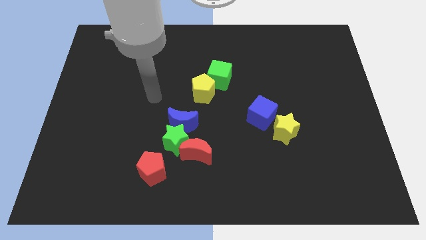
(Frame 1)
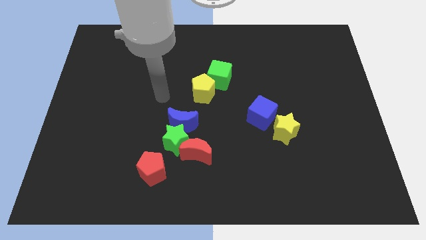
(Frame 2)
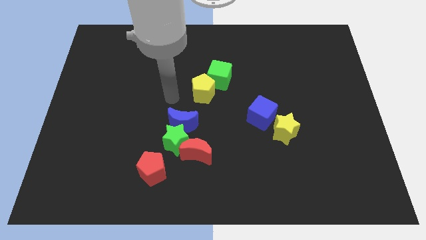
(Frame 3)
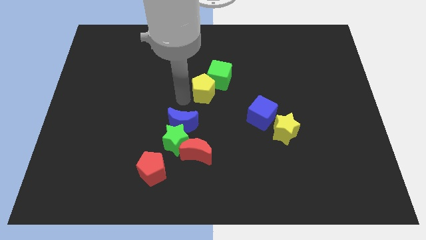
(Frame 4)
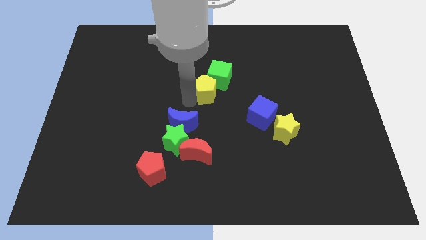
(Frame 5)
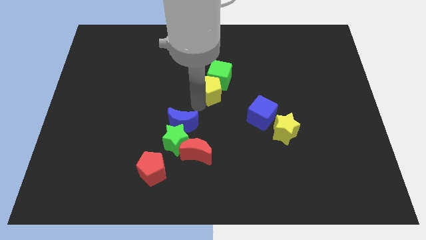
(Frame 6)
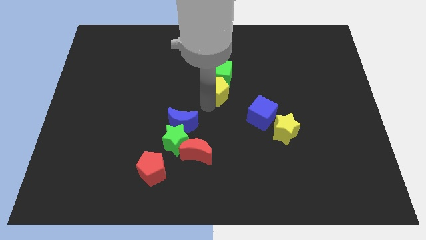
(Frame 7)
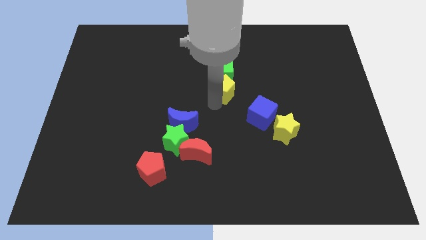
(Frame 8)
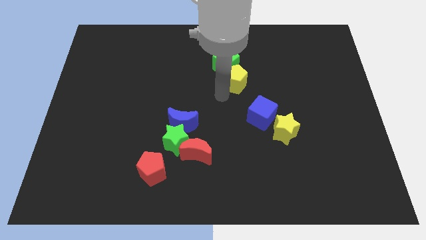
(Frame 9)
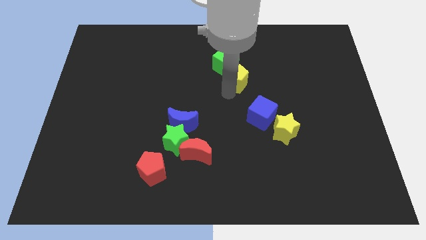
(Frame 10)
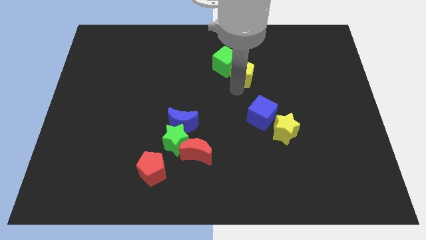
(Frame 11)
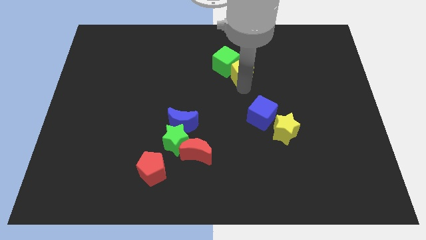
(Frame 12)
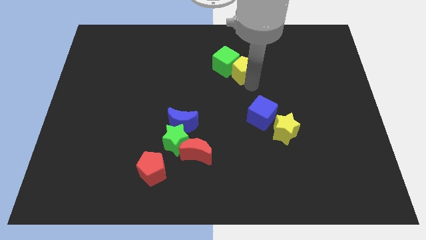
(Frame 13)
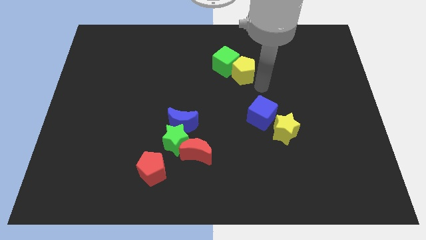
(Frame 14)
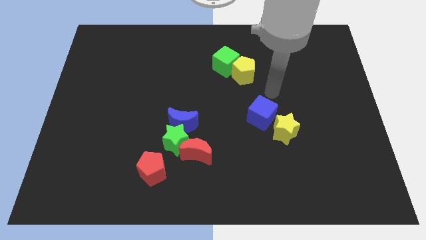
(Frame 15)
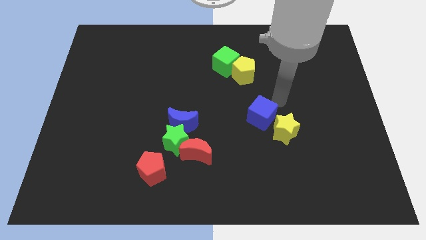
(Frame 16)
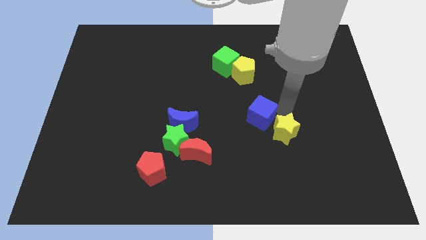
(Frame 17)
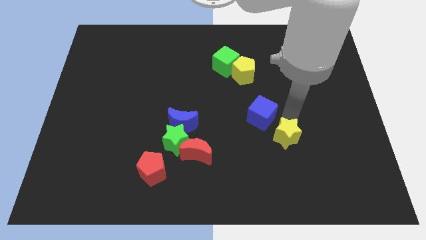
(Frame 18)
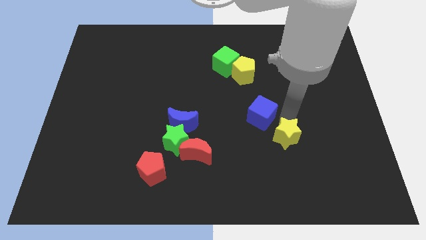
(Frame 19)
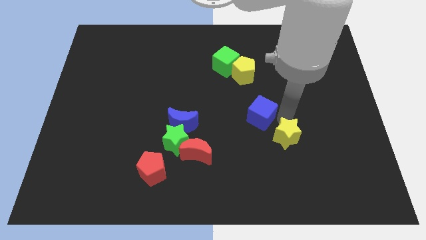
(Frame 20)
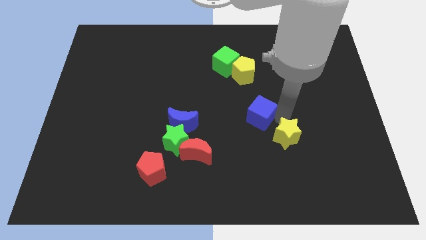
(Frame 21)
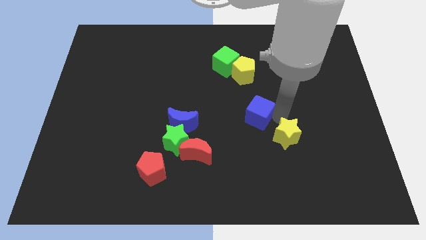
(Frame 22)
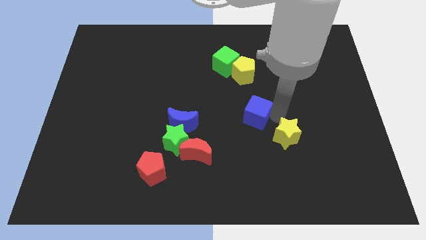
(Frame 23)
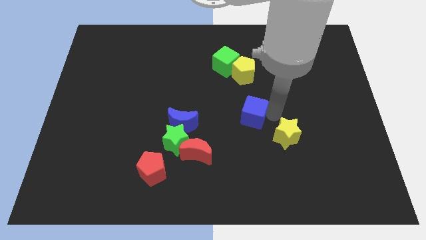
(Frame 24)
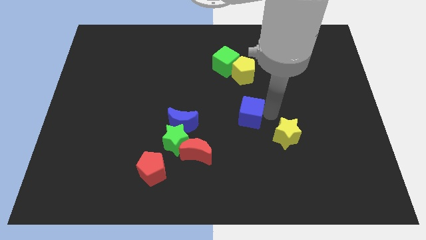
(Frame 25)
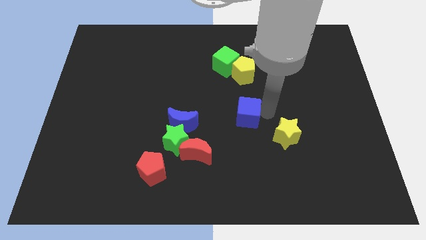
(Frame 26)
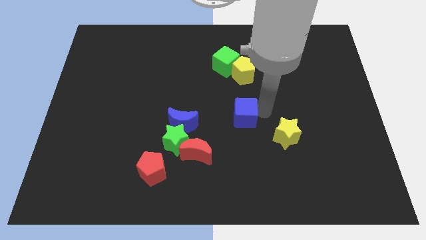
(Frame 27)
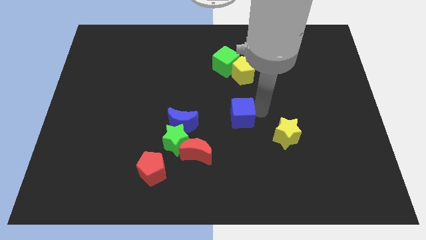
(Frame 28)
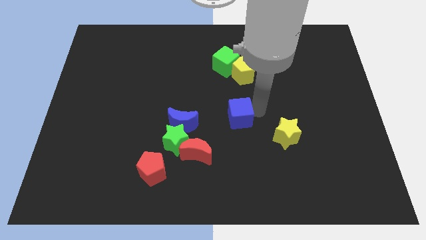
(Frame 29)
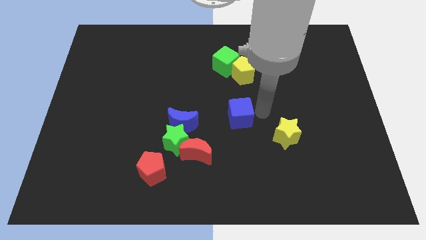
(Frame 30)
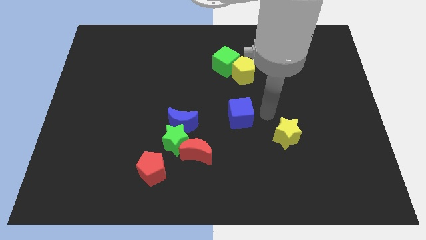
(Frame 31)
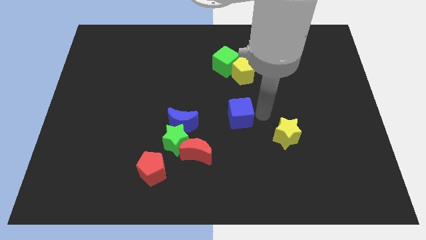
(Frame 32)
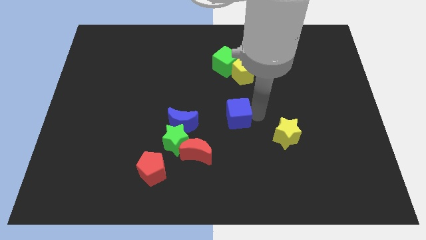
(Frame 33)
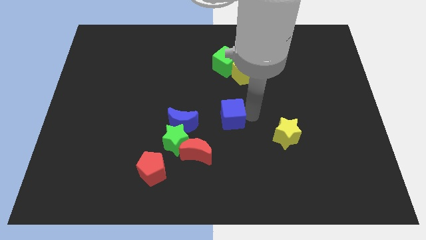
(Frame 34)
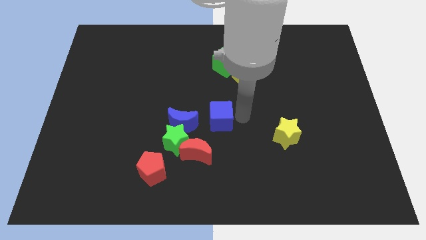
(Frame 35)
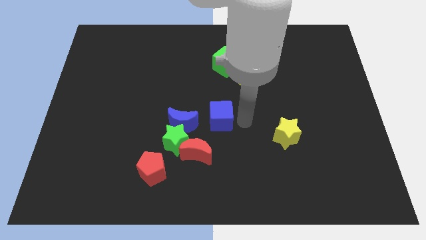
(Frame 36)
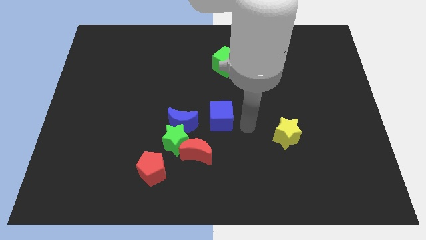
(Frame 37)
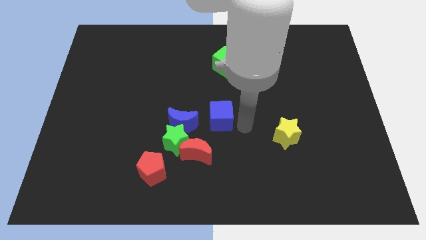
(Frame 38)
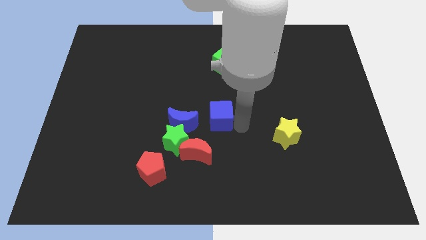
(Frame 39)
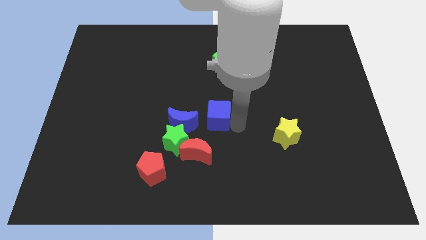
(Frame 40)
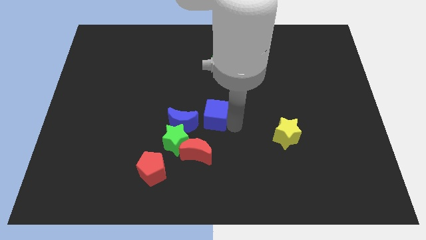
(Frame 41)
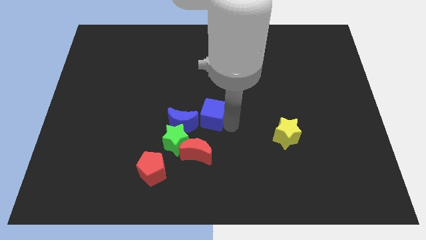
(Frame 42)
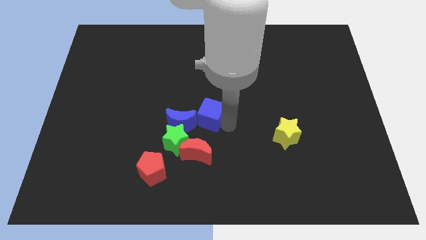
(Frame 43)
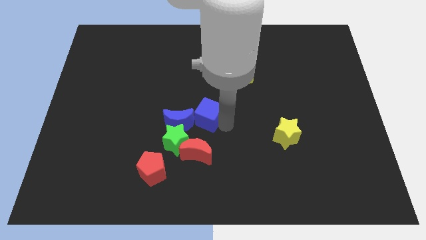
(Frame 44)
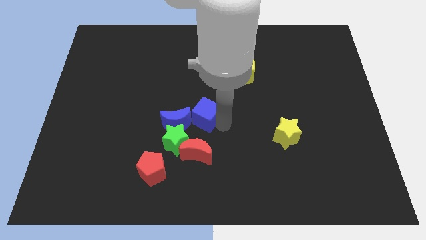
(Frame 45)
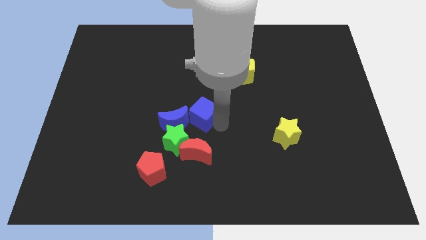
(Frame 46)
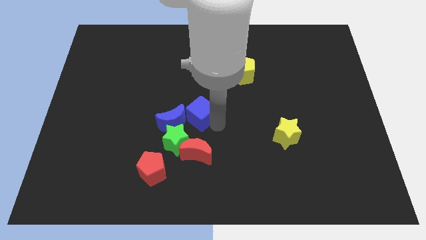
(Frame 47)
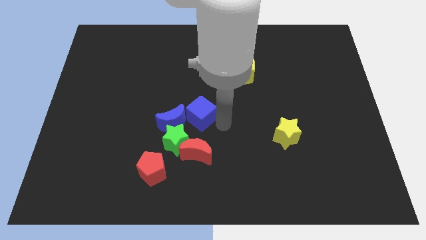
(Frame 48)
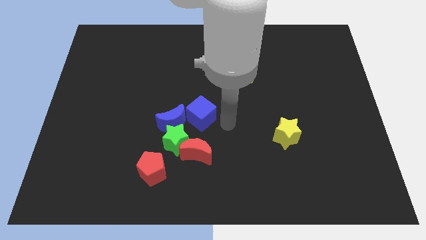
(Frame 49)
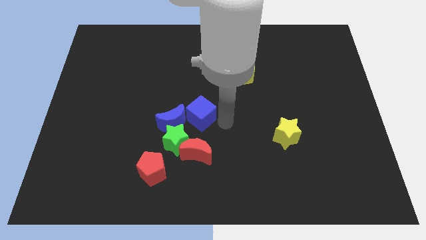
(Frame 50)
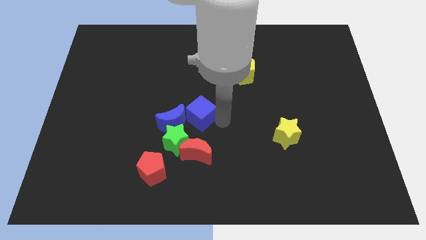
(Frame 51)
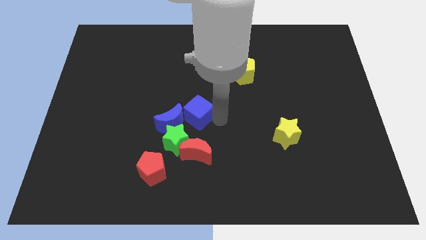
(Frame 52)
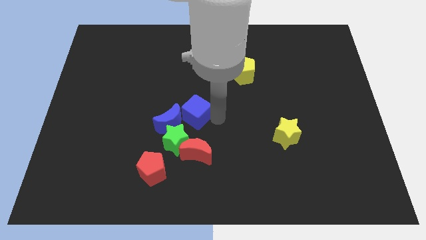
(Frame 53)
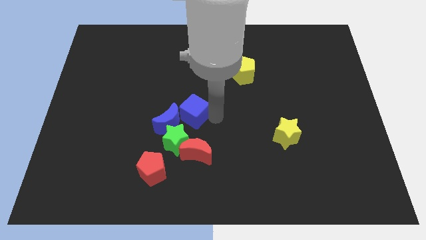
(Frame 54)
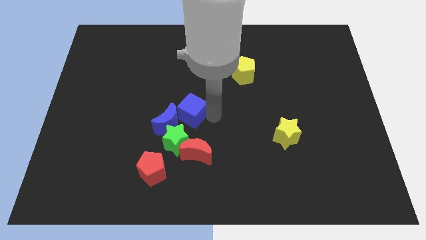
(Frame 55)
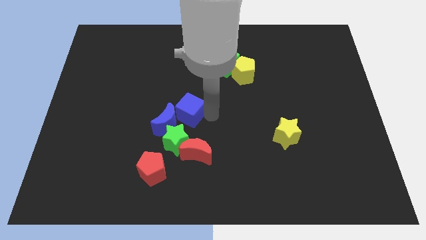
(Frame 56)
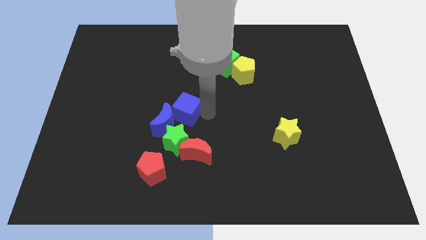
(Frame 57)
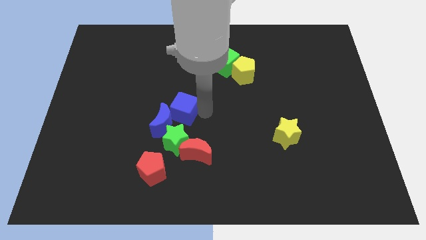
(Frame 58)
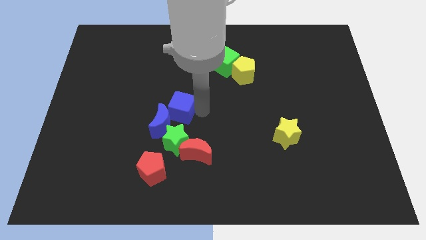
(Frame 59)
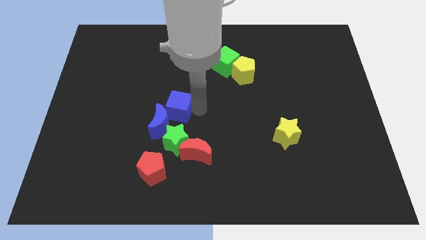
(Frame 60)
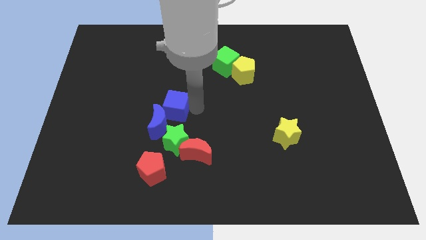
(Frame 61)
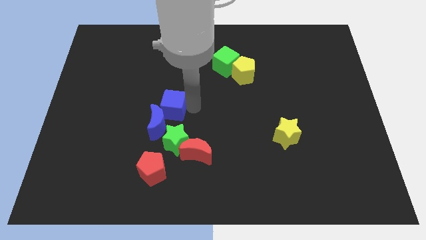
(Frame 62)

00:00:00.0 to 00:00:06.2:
move the blue cube to the left

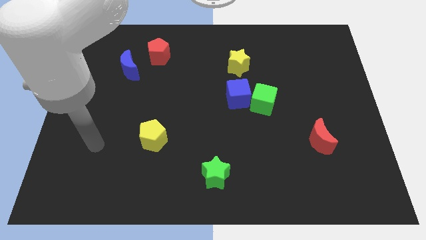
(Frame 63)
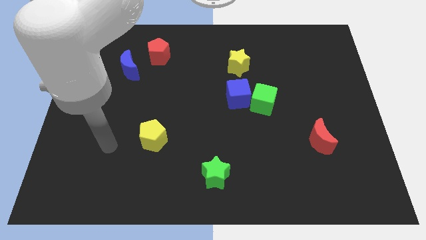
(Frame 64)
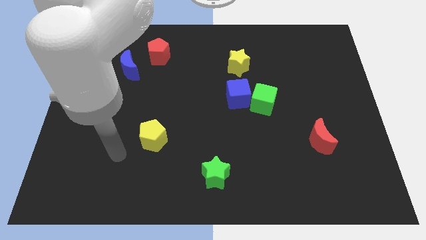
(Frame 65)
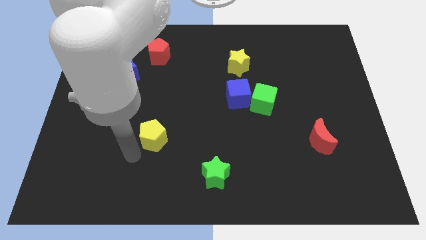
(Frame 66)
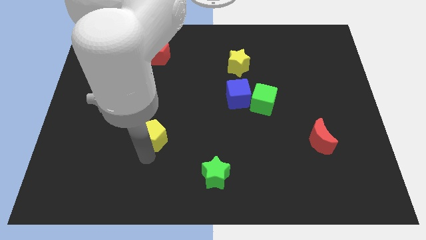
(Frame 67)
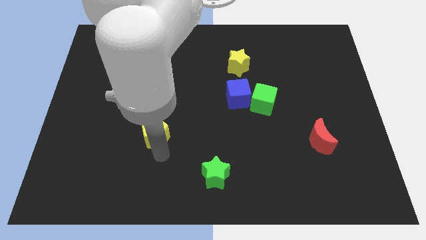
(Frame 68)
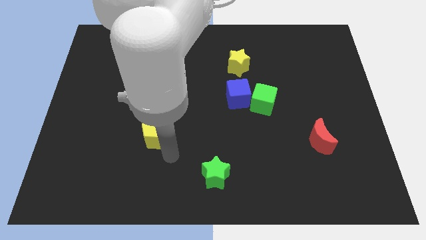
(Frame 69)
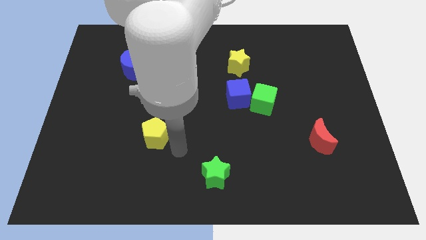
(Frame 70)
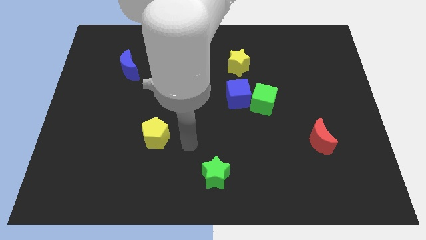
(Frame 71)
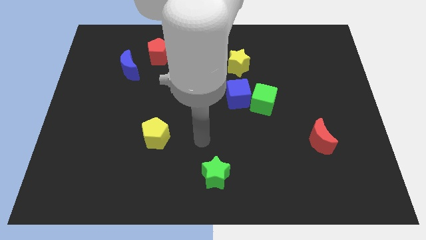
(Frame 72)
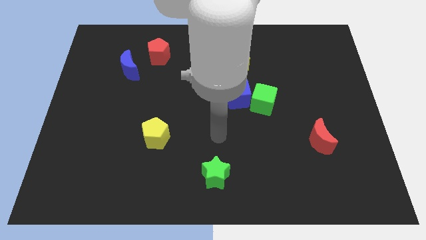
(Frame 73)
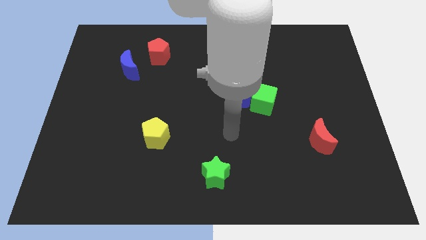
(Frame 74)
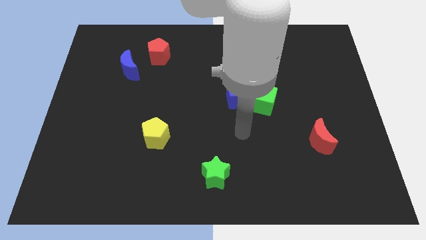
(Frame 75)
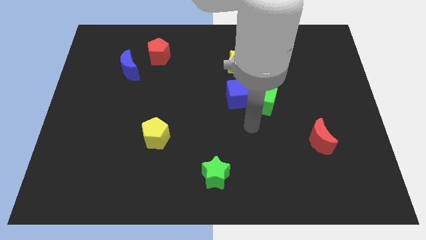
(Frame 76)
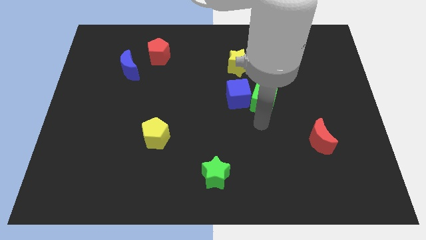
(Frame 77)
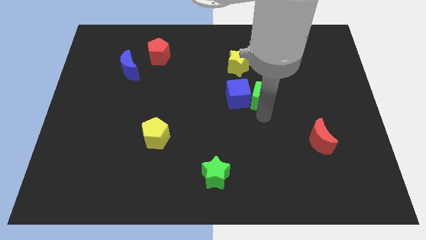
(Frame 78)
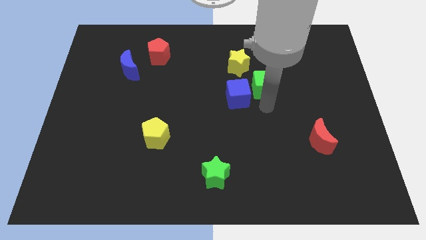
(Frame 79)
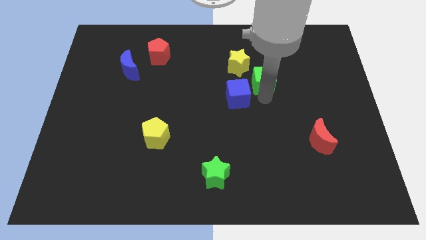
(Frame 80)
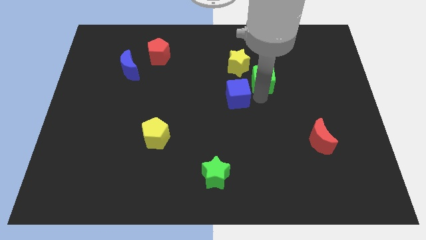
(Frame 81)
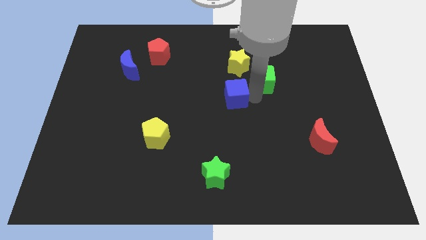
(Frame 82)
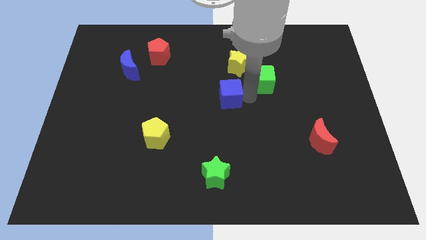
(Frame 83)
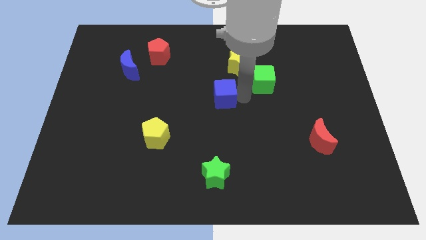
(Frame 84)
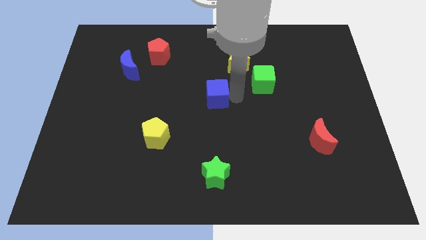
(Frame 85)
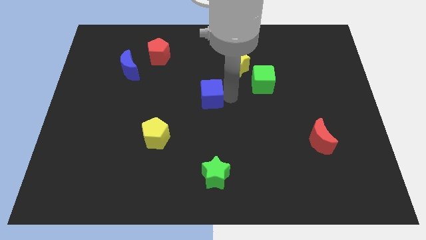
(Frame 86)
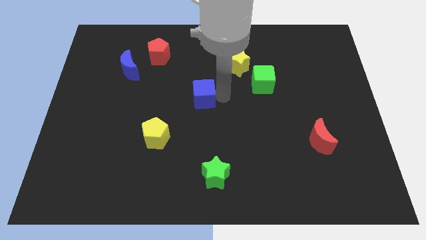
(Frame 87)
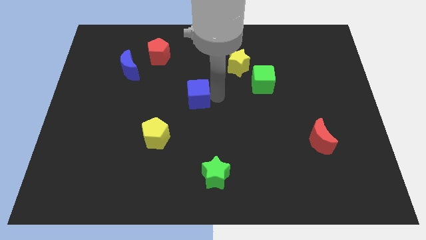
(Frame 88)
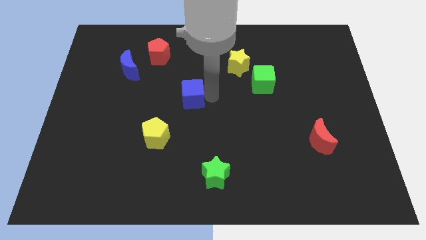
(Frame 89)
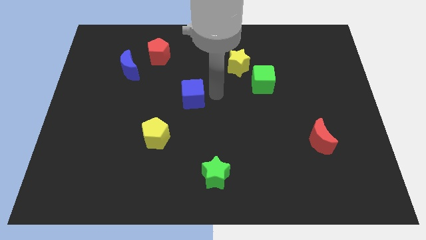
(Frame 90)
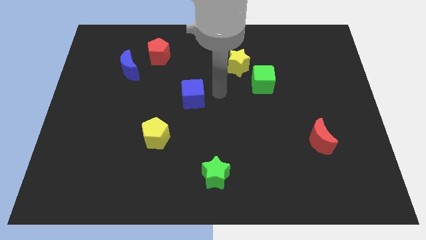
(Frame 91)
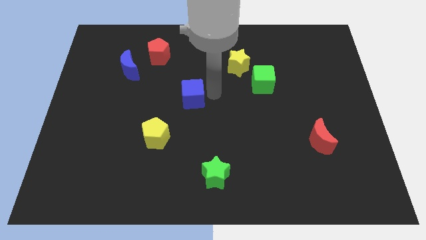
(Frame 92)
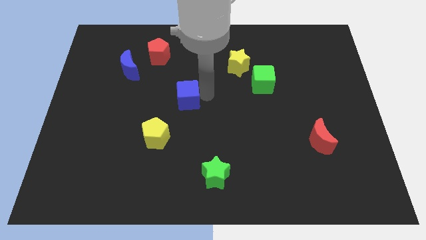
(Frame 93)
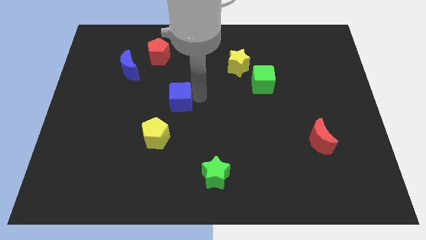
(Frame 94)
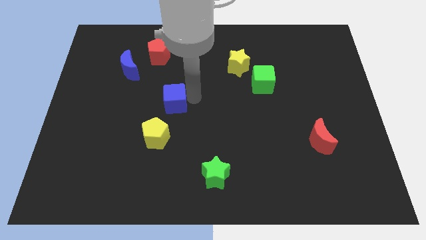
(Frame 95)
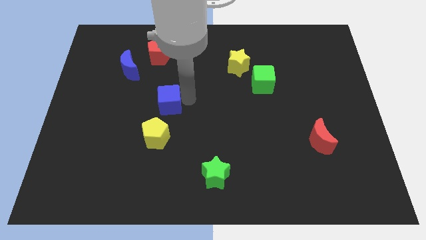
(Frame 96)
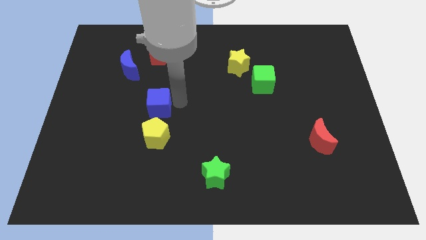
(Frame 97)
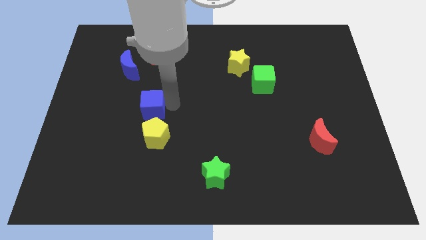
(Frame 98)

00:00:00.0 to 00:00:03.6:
push the blue cube to the left
